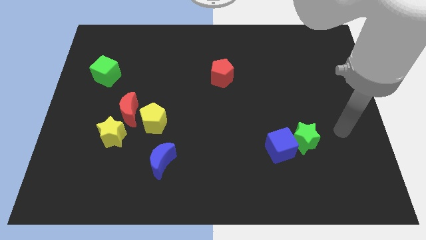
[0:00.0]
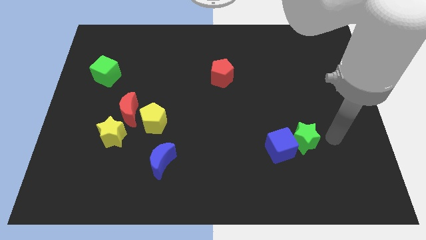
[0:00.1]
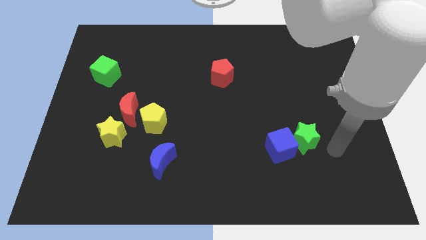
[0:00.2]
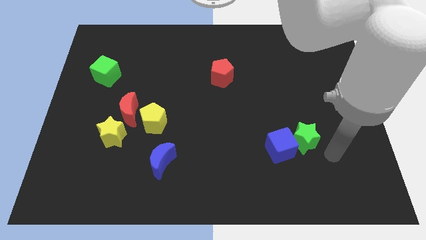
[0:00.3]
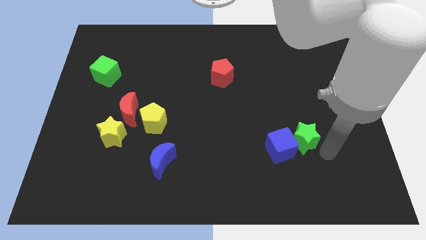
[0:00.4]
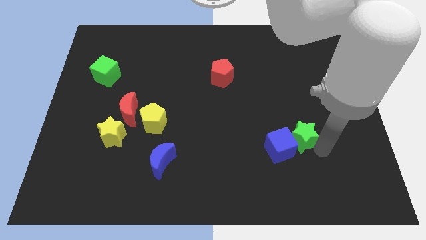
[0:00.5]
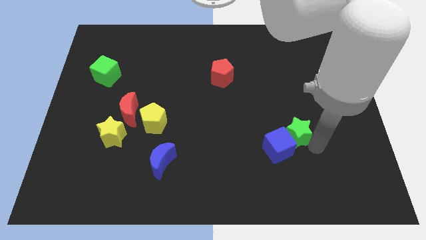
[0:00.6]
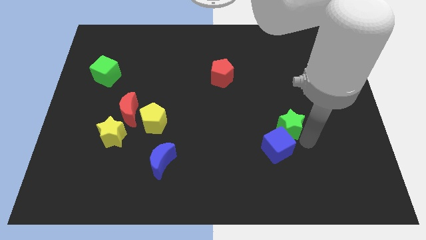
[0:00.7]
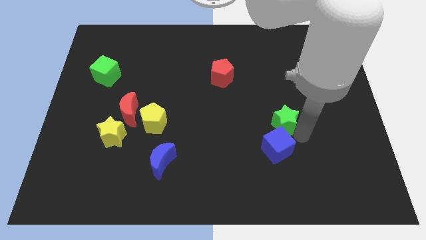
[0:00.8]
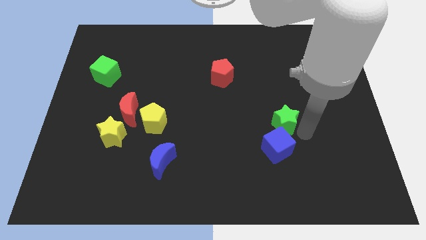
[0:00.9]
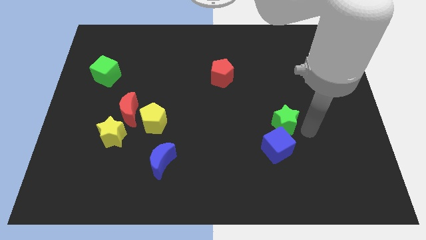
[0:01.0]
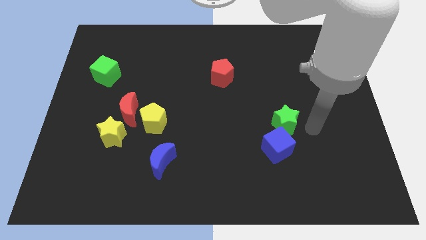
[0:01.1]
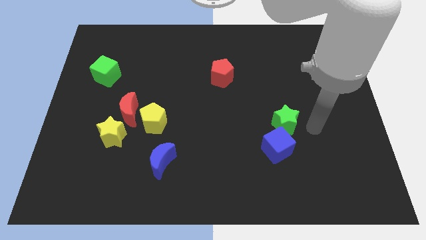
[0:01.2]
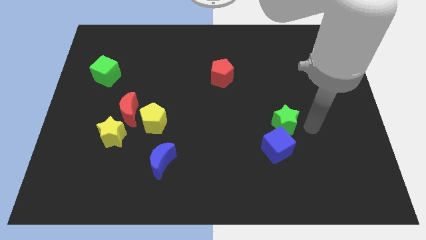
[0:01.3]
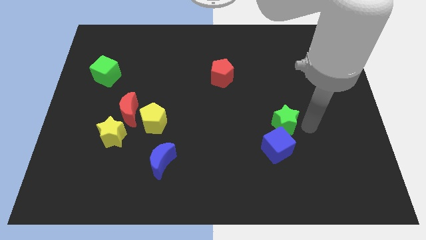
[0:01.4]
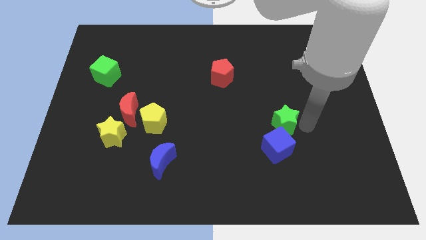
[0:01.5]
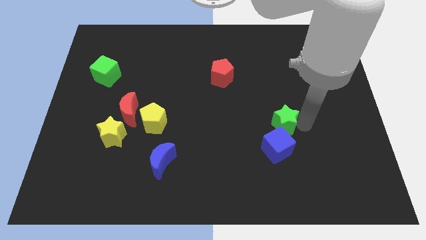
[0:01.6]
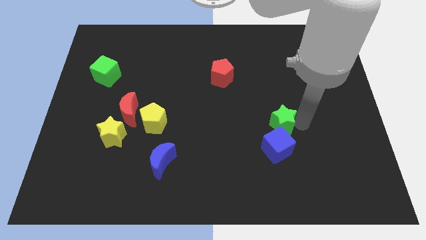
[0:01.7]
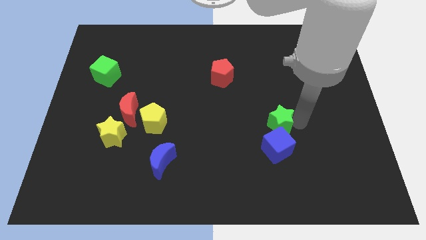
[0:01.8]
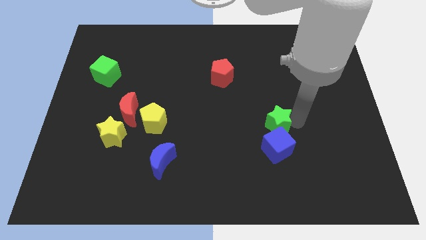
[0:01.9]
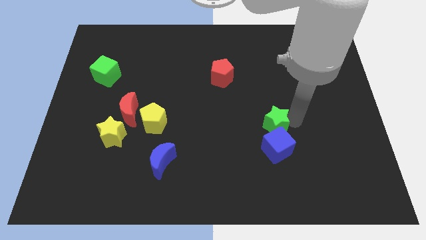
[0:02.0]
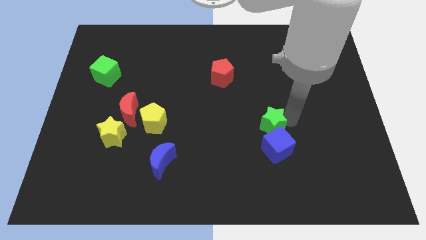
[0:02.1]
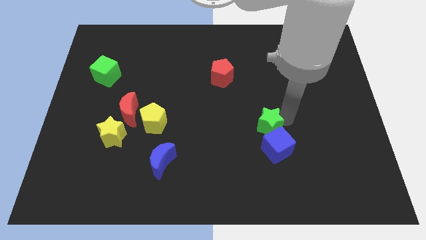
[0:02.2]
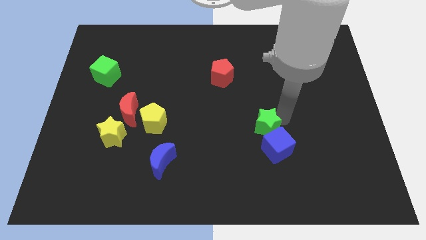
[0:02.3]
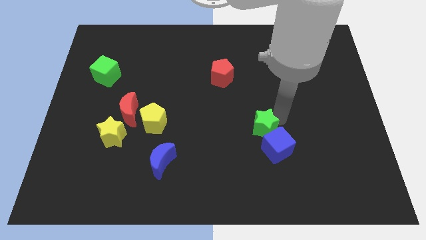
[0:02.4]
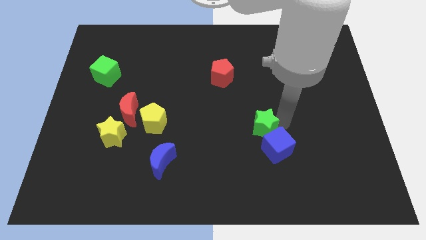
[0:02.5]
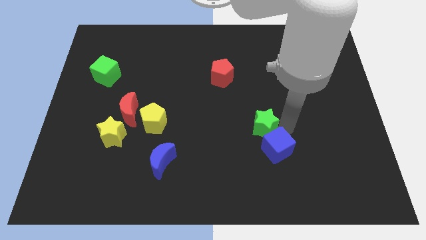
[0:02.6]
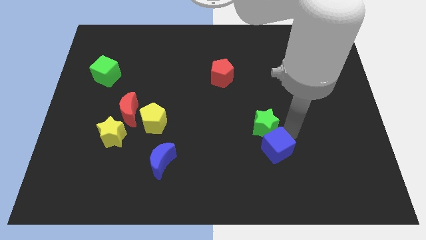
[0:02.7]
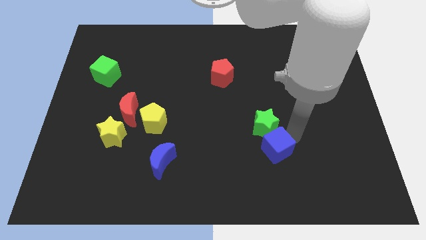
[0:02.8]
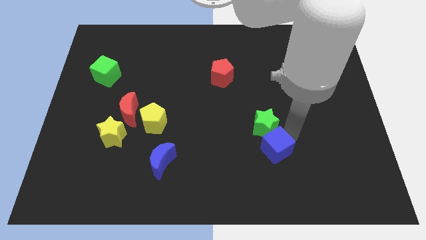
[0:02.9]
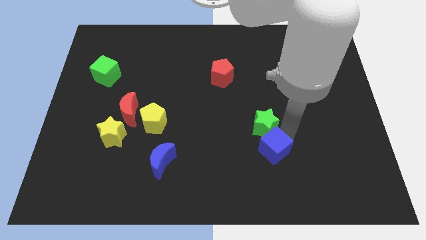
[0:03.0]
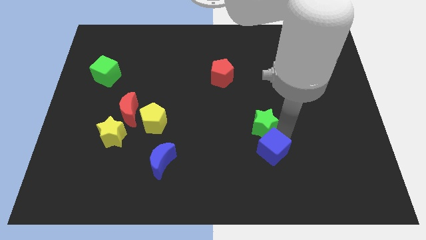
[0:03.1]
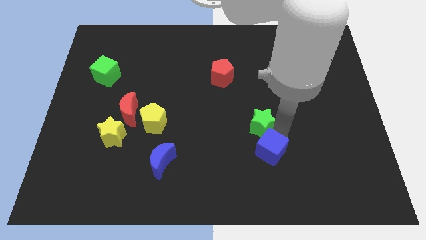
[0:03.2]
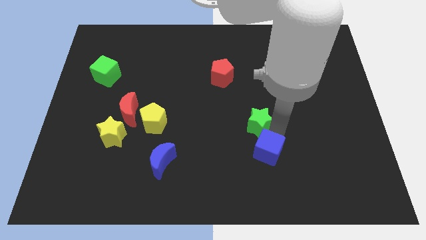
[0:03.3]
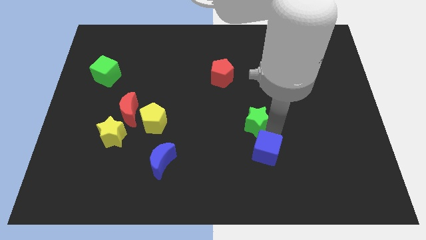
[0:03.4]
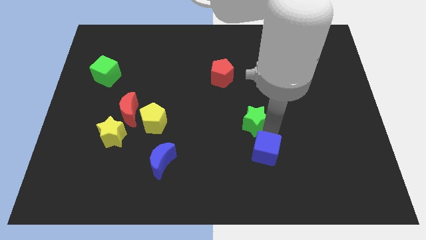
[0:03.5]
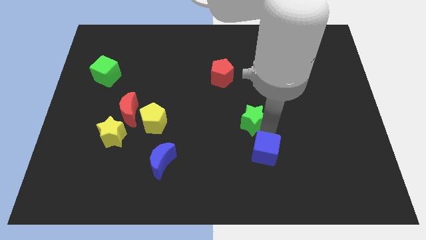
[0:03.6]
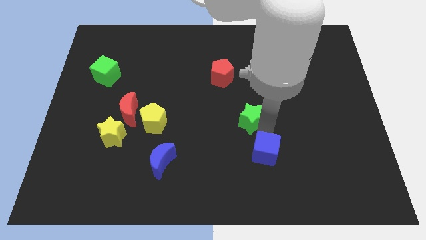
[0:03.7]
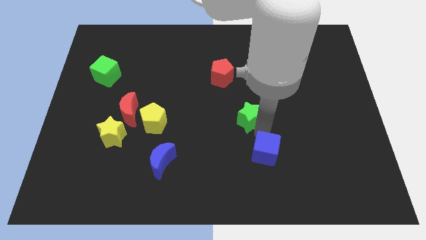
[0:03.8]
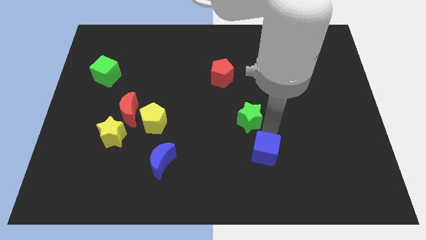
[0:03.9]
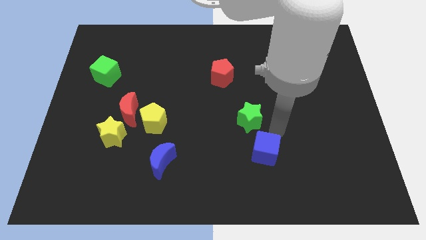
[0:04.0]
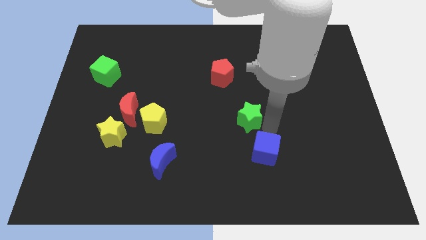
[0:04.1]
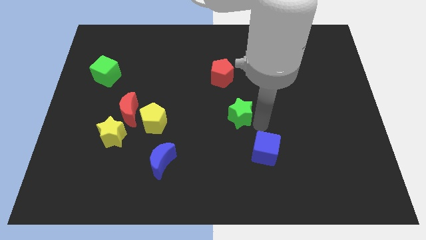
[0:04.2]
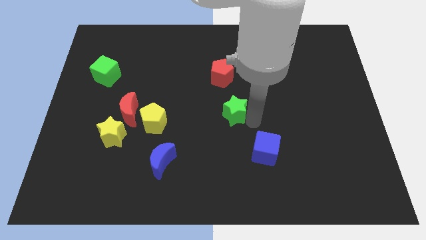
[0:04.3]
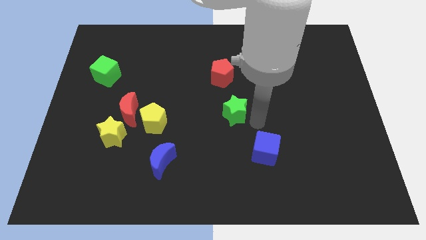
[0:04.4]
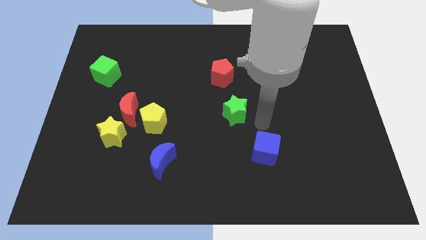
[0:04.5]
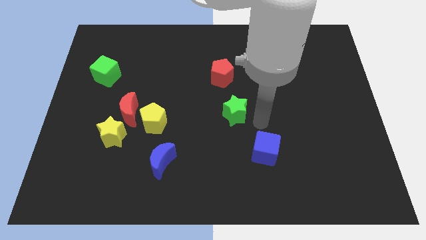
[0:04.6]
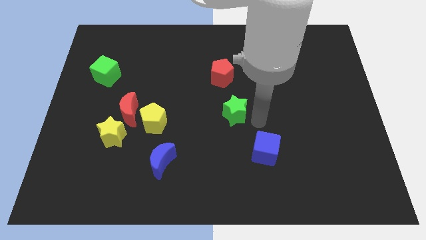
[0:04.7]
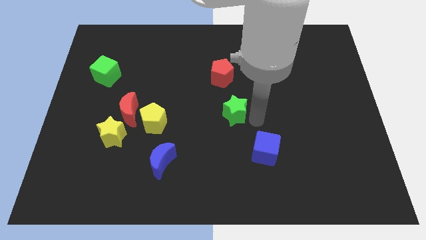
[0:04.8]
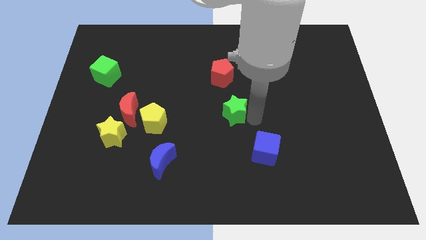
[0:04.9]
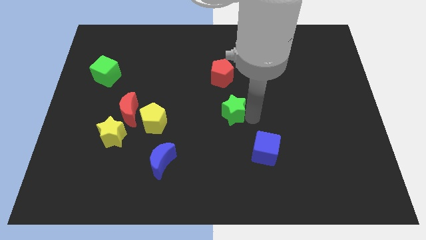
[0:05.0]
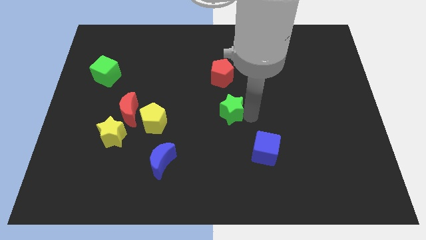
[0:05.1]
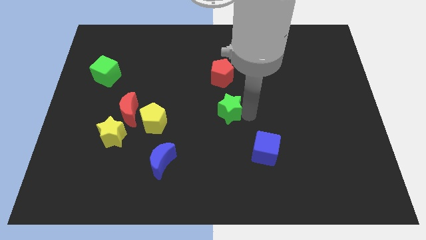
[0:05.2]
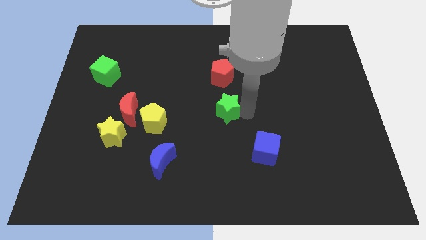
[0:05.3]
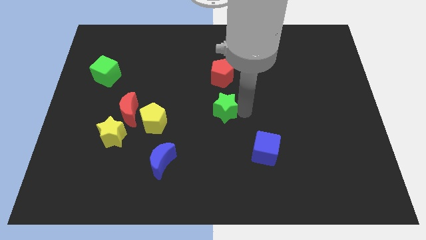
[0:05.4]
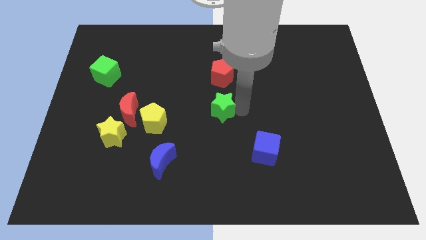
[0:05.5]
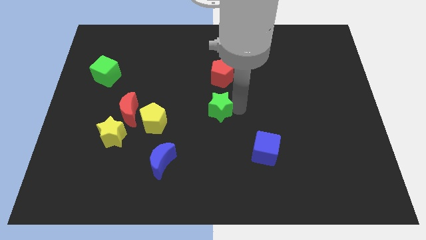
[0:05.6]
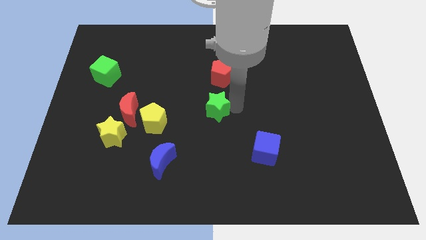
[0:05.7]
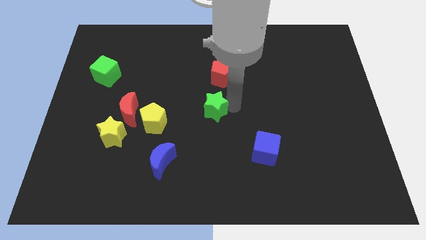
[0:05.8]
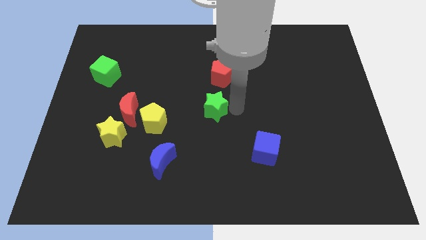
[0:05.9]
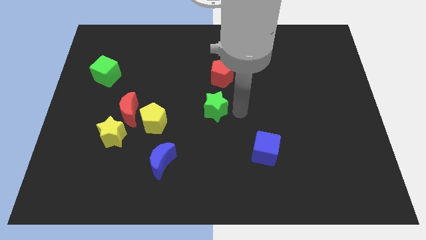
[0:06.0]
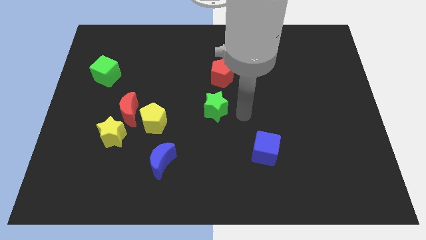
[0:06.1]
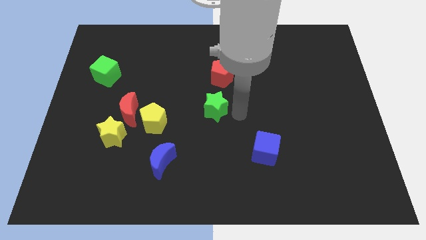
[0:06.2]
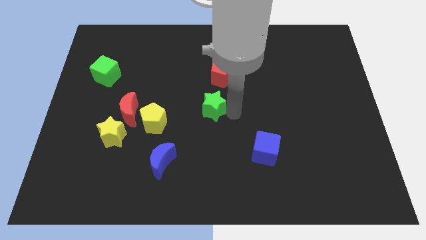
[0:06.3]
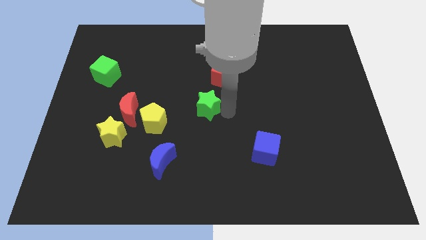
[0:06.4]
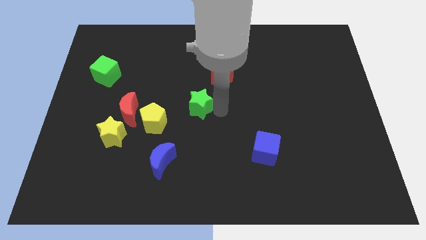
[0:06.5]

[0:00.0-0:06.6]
put the green star to the top right of the yellow pentagon

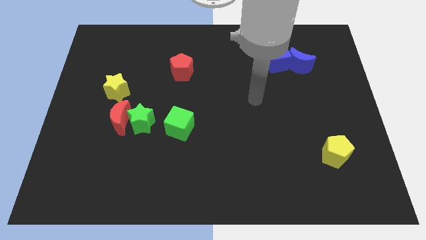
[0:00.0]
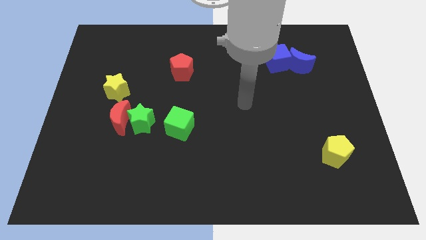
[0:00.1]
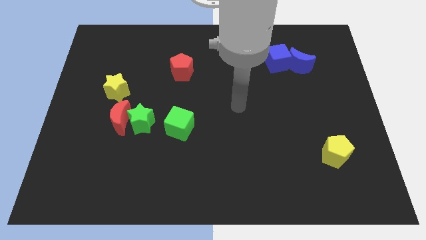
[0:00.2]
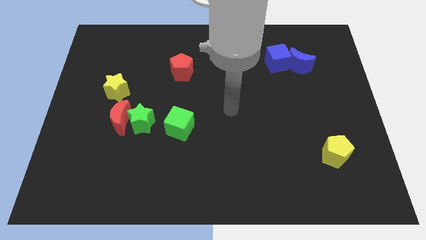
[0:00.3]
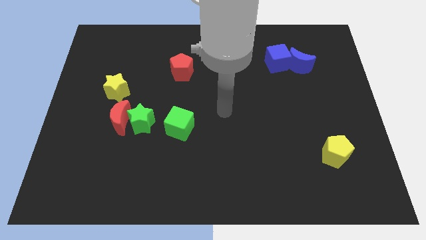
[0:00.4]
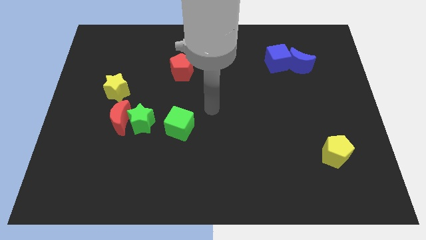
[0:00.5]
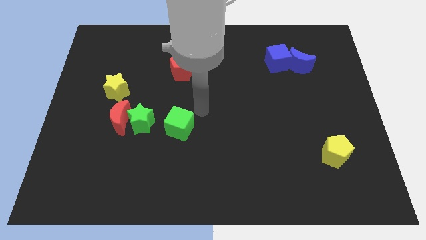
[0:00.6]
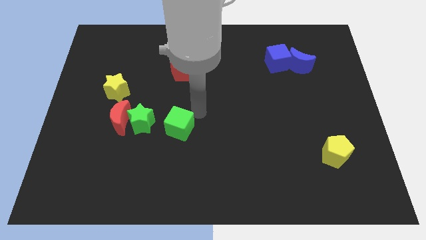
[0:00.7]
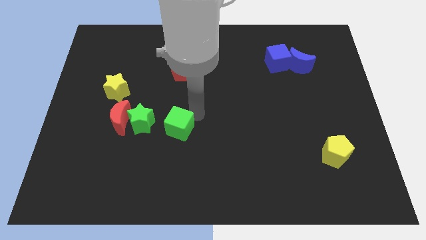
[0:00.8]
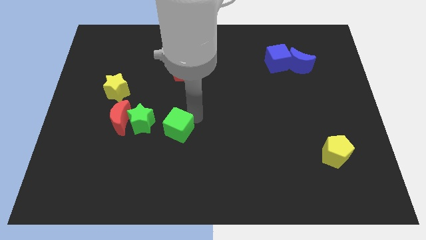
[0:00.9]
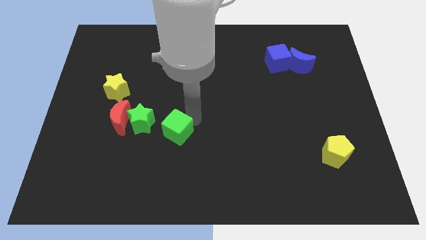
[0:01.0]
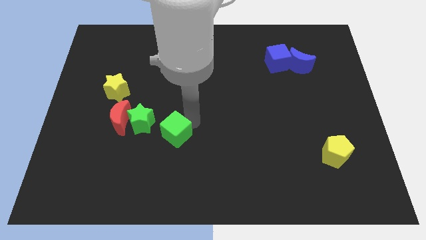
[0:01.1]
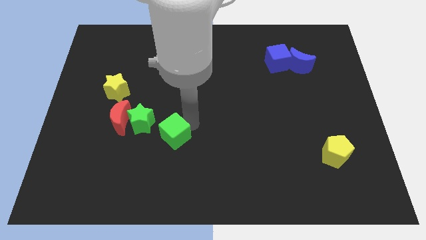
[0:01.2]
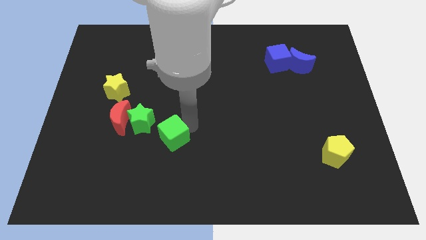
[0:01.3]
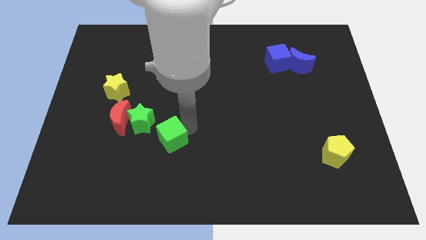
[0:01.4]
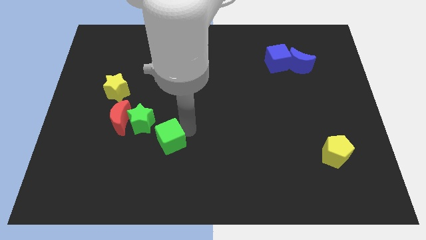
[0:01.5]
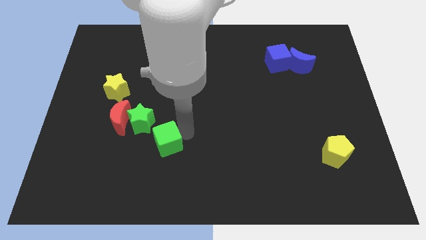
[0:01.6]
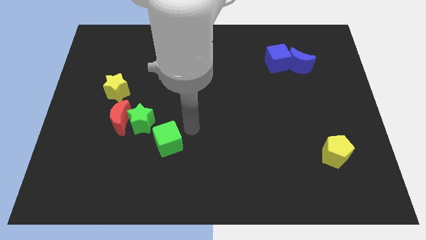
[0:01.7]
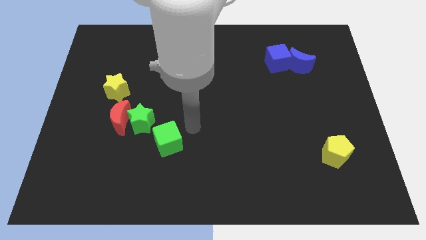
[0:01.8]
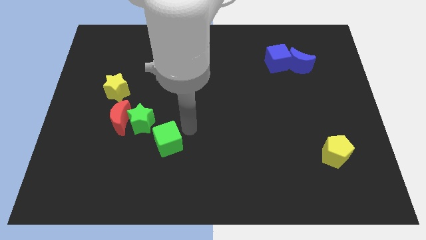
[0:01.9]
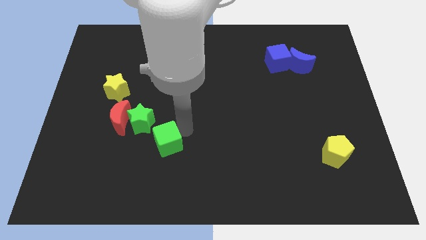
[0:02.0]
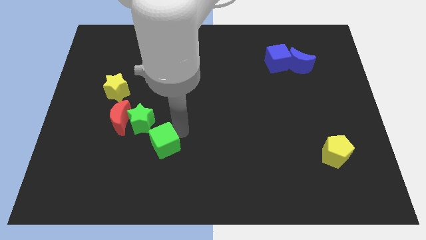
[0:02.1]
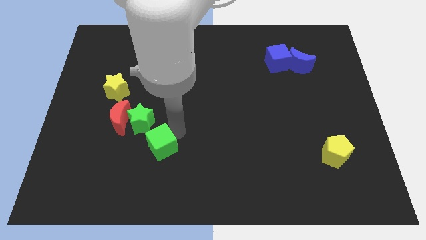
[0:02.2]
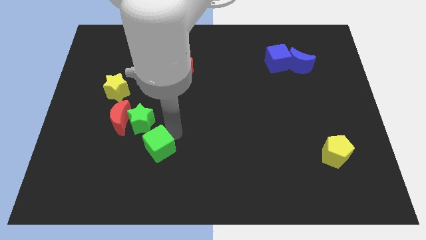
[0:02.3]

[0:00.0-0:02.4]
slide the green cube below the green star
